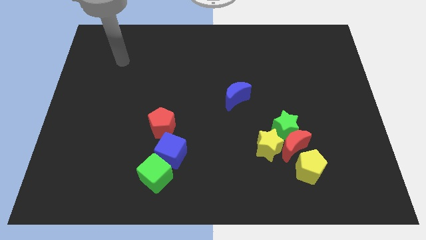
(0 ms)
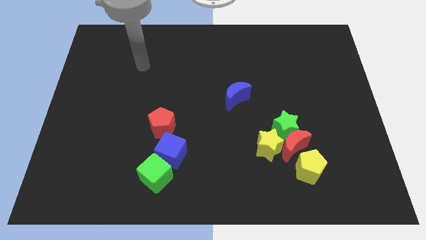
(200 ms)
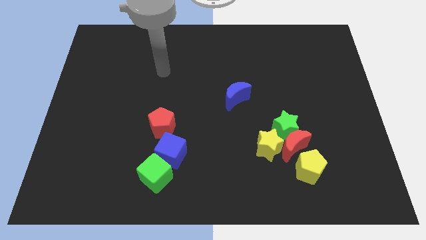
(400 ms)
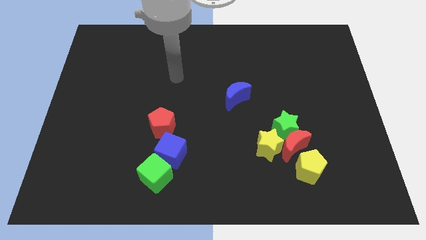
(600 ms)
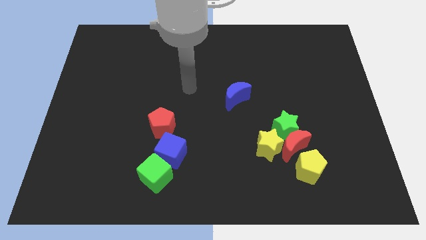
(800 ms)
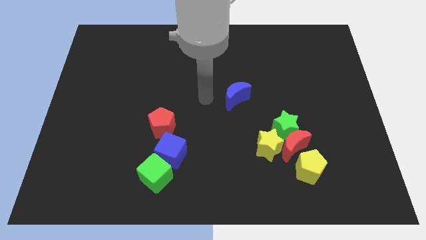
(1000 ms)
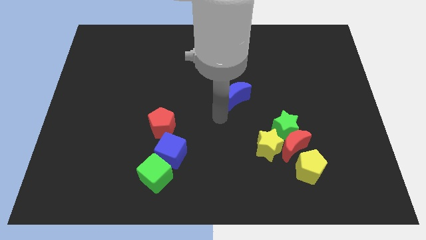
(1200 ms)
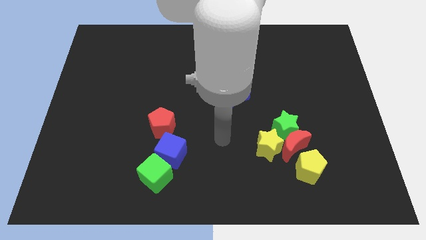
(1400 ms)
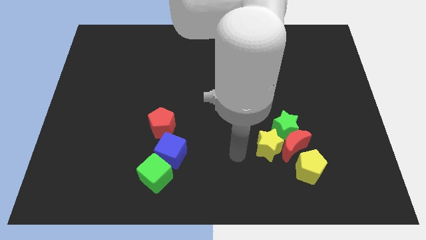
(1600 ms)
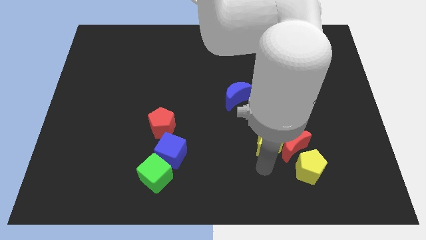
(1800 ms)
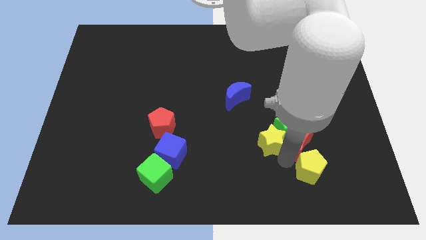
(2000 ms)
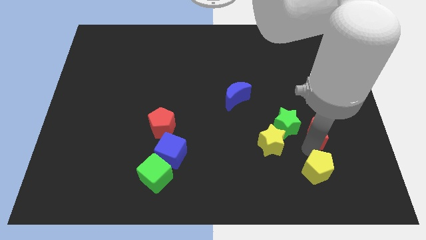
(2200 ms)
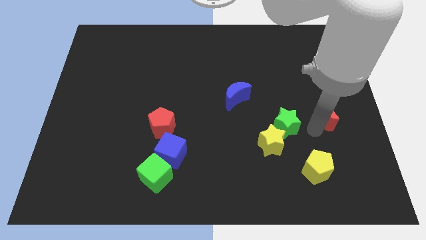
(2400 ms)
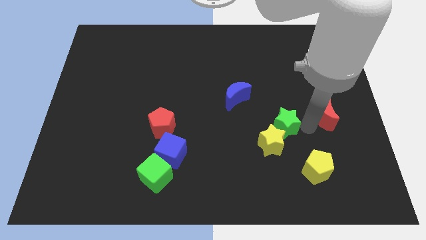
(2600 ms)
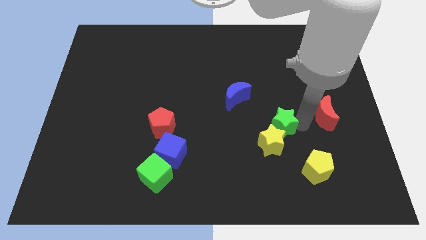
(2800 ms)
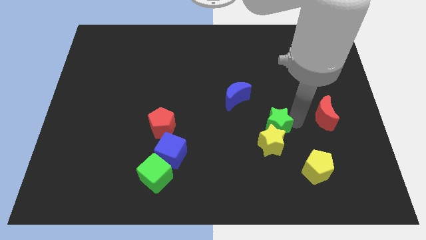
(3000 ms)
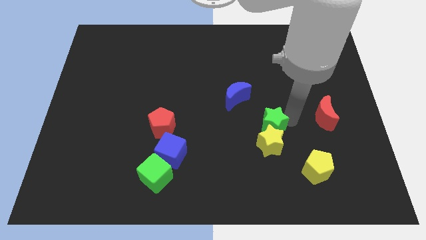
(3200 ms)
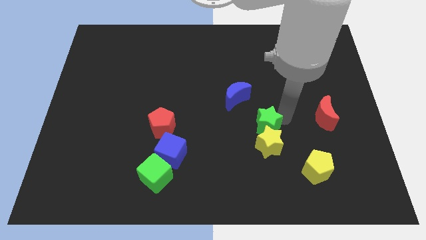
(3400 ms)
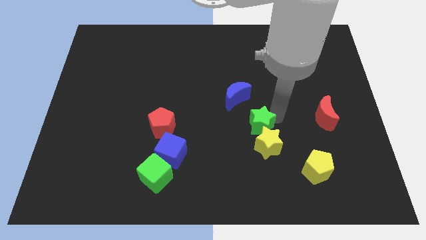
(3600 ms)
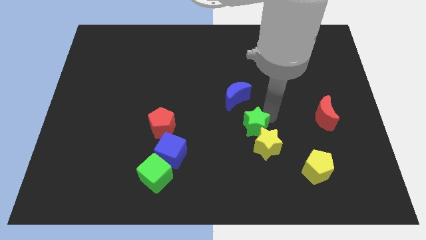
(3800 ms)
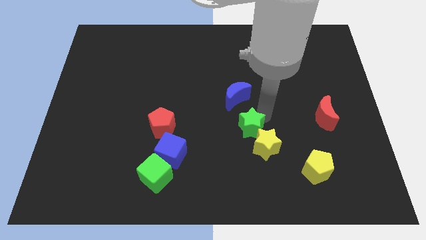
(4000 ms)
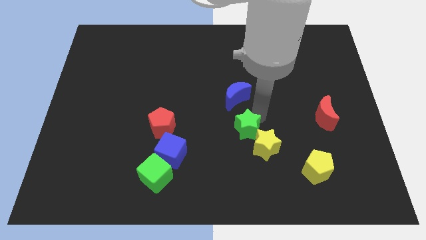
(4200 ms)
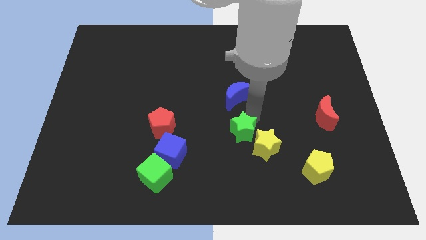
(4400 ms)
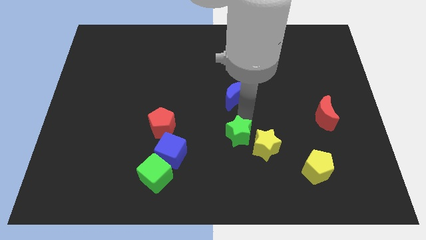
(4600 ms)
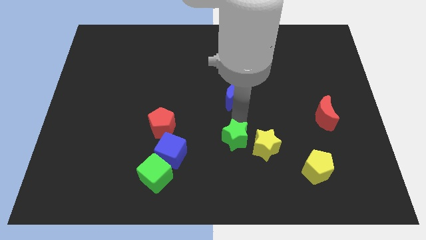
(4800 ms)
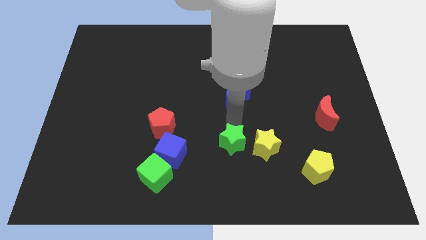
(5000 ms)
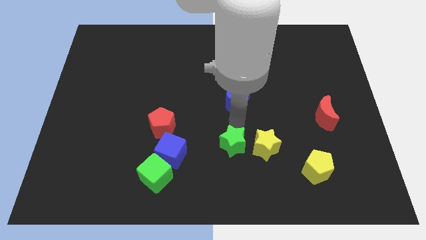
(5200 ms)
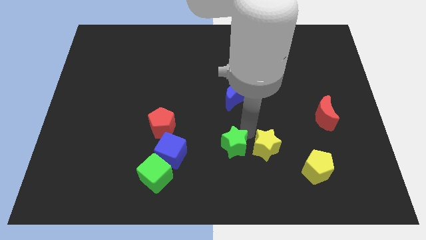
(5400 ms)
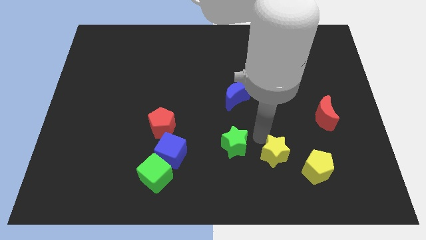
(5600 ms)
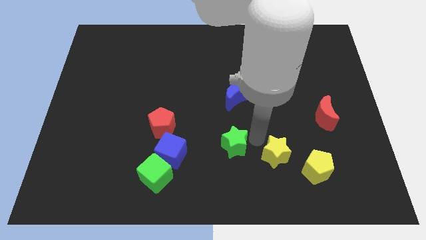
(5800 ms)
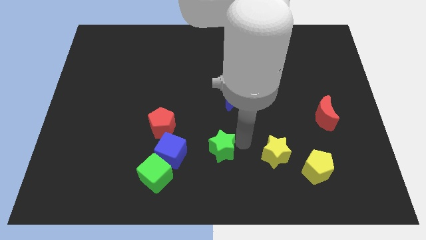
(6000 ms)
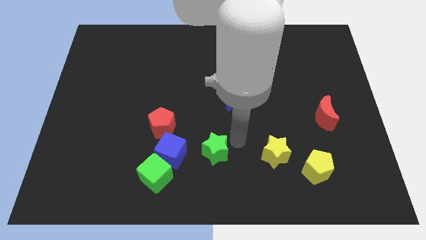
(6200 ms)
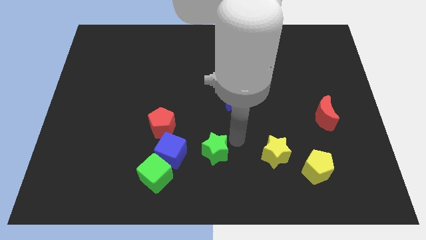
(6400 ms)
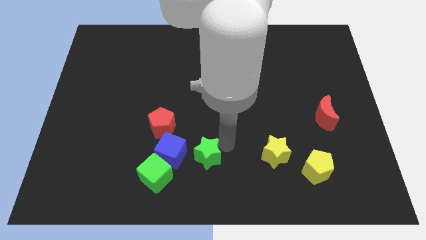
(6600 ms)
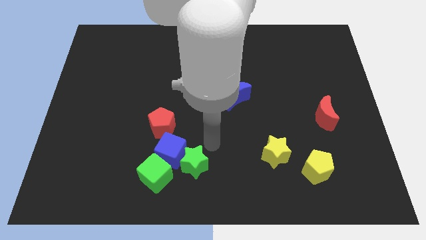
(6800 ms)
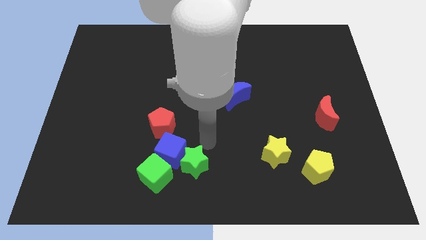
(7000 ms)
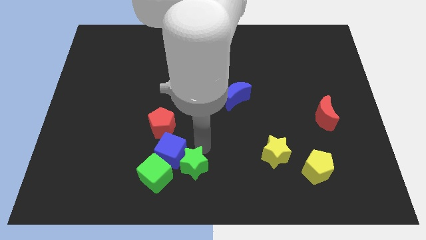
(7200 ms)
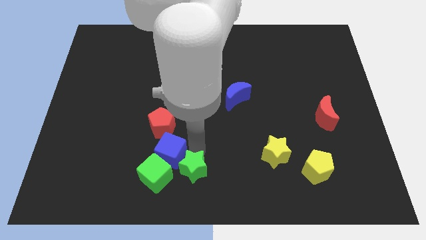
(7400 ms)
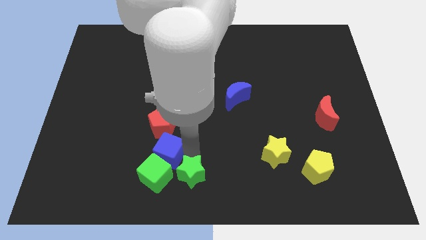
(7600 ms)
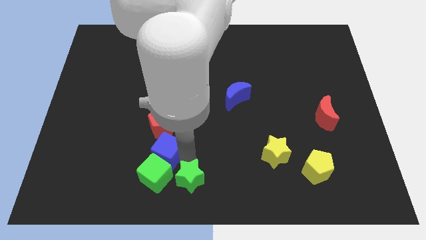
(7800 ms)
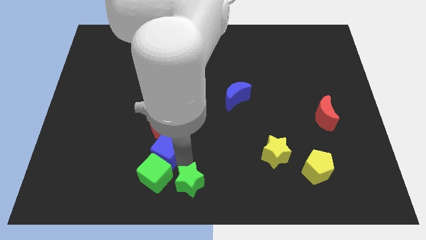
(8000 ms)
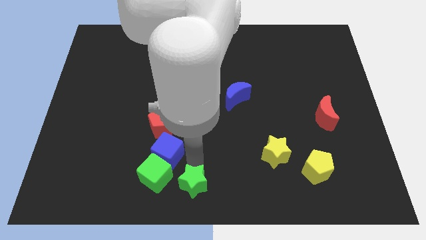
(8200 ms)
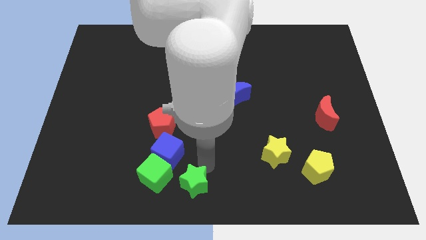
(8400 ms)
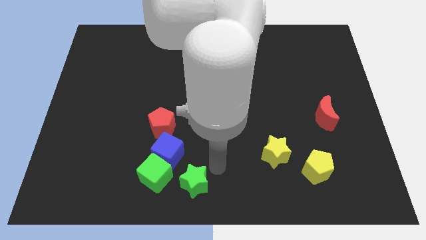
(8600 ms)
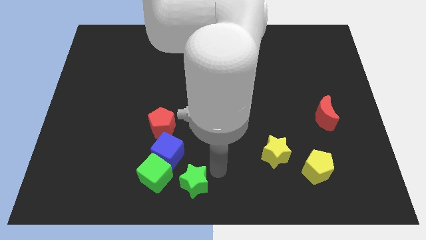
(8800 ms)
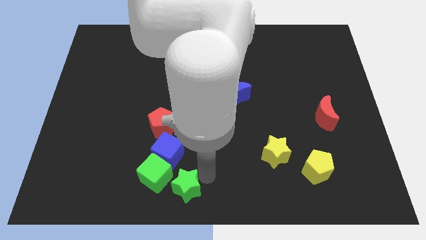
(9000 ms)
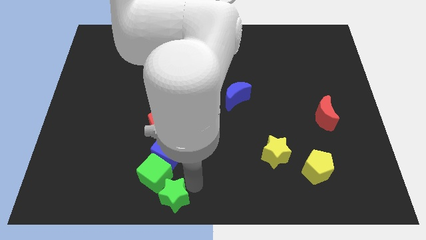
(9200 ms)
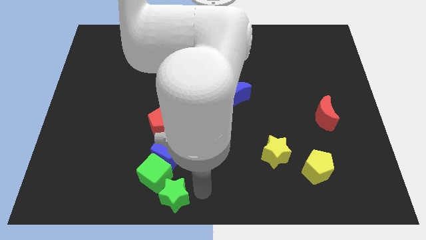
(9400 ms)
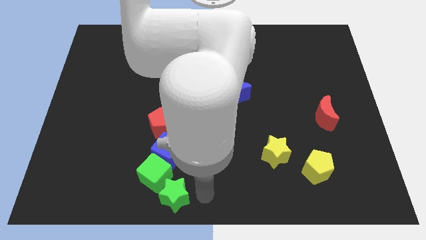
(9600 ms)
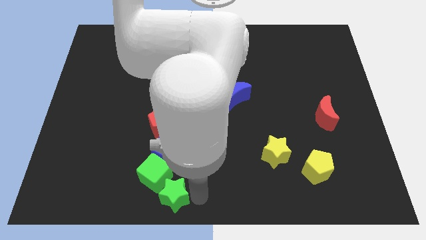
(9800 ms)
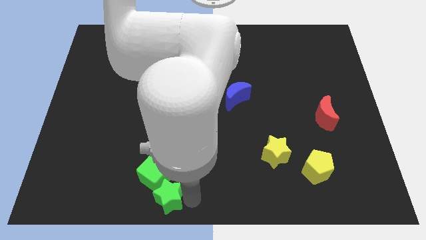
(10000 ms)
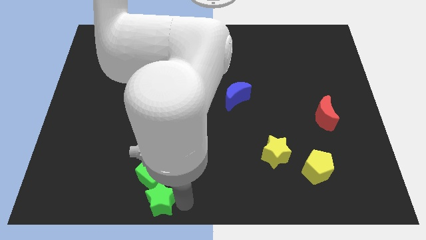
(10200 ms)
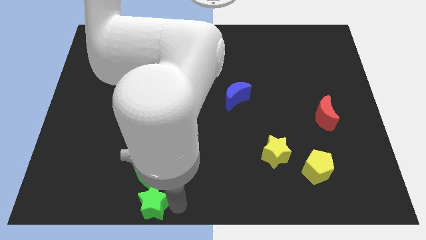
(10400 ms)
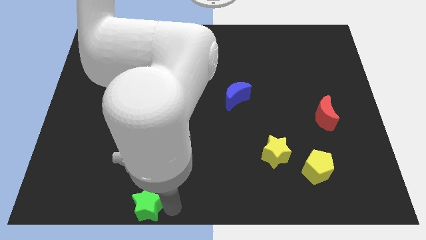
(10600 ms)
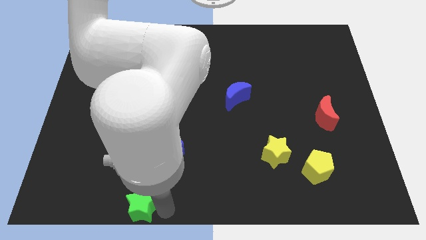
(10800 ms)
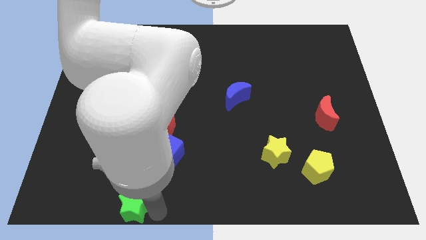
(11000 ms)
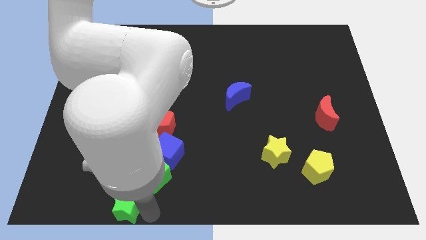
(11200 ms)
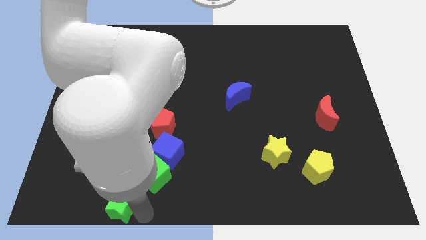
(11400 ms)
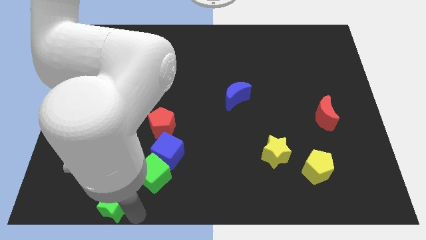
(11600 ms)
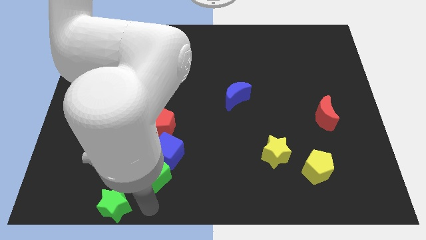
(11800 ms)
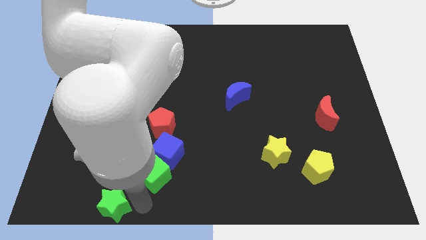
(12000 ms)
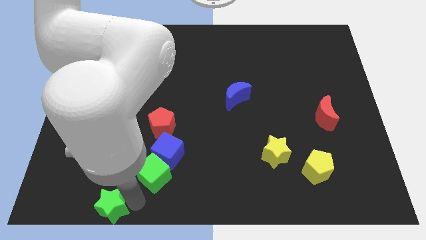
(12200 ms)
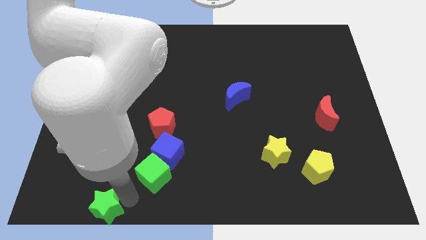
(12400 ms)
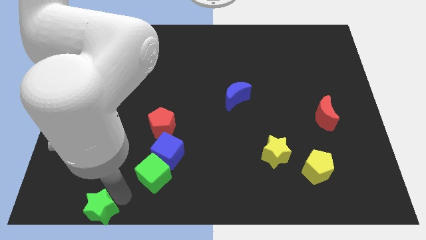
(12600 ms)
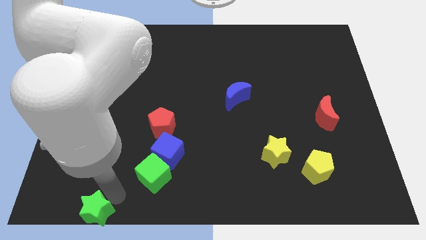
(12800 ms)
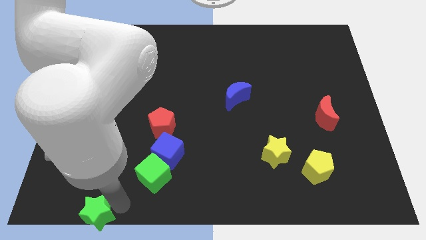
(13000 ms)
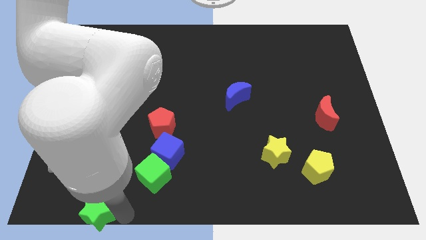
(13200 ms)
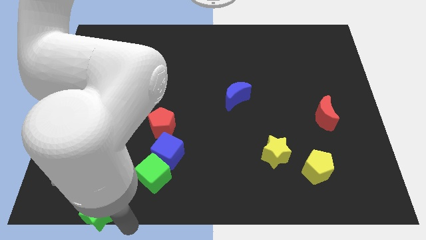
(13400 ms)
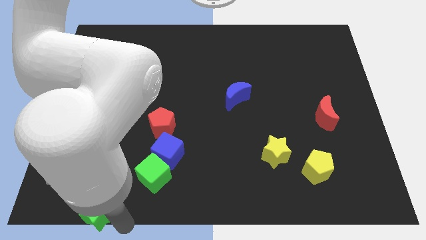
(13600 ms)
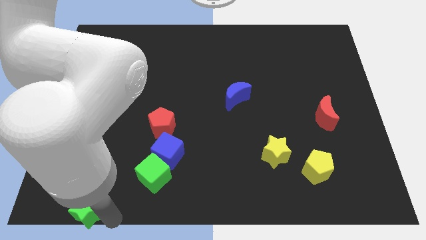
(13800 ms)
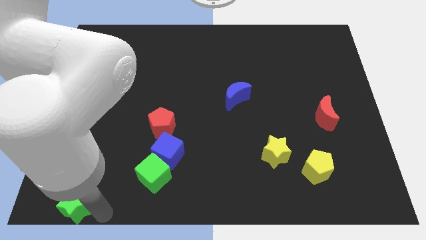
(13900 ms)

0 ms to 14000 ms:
push the green star to the bottom left corner

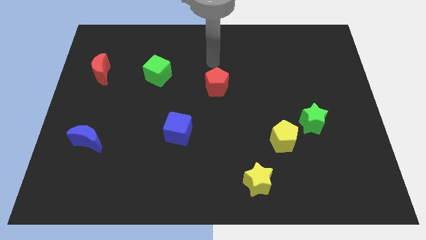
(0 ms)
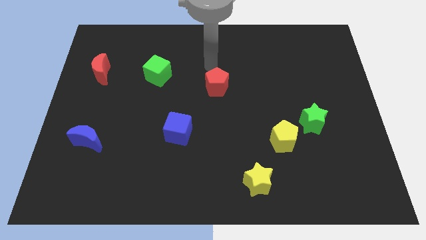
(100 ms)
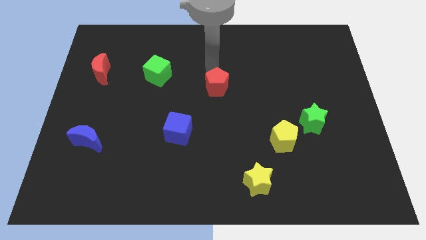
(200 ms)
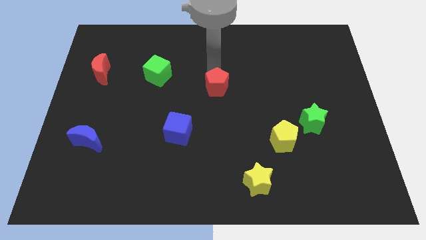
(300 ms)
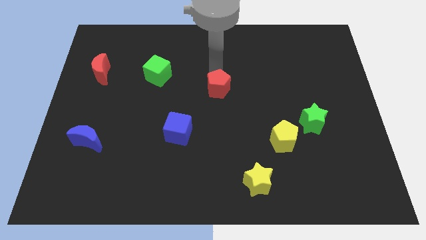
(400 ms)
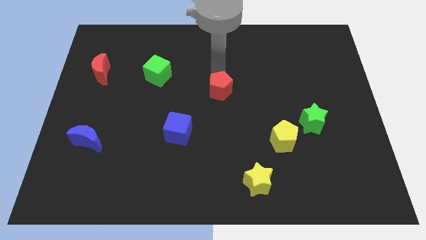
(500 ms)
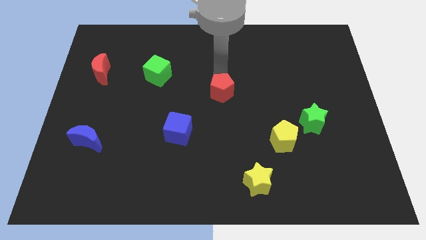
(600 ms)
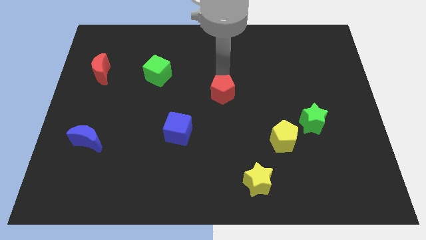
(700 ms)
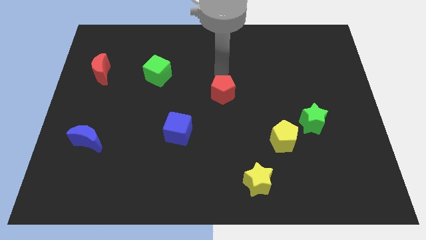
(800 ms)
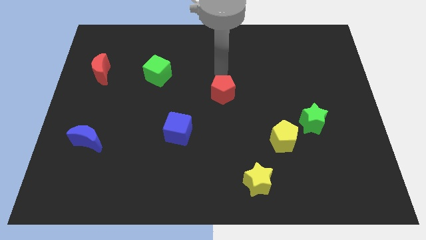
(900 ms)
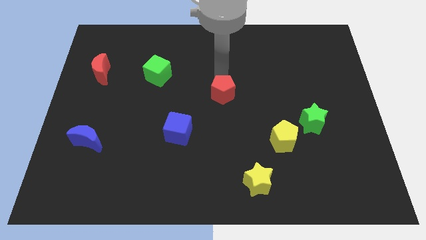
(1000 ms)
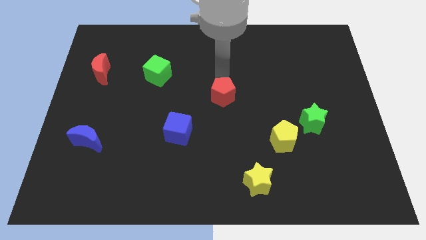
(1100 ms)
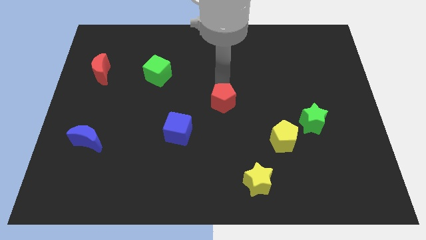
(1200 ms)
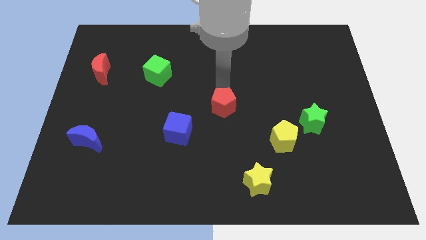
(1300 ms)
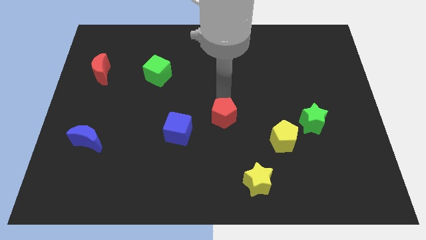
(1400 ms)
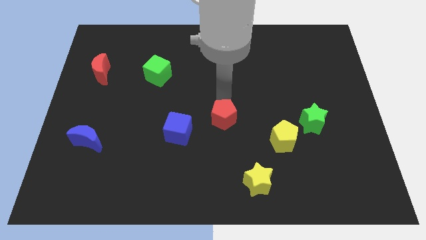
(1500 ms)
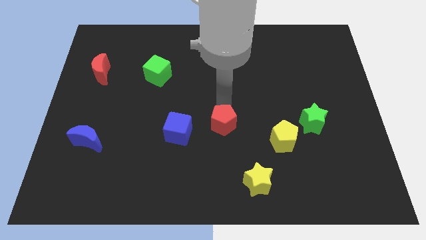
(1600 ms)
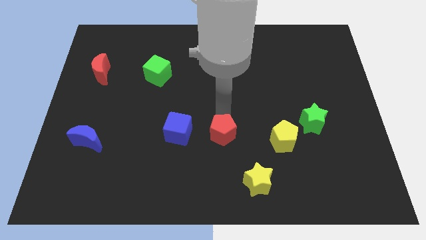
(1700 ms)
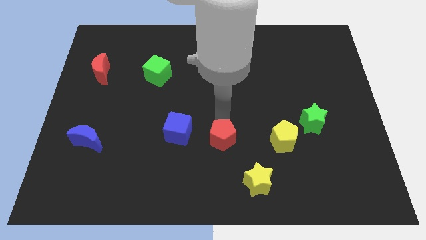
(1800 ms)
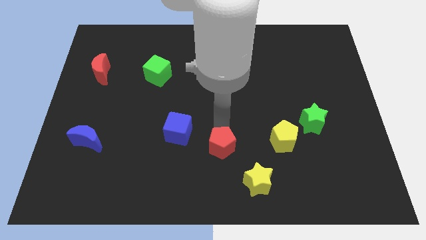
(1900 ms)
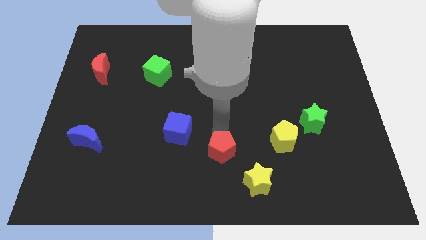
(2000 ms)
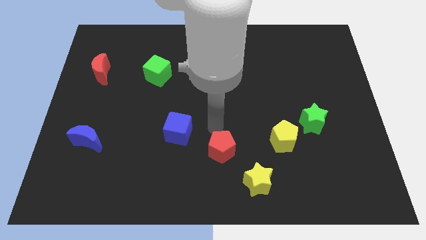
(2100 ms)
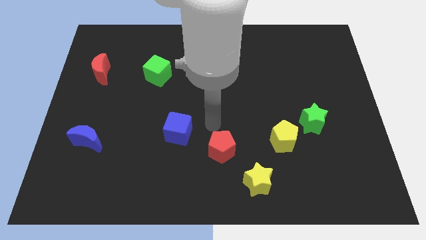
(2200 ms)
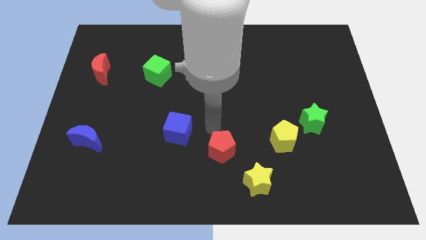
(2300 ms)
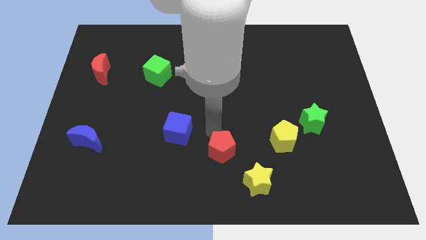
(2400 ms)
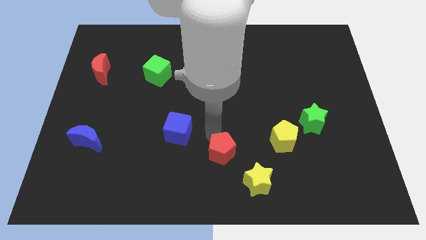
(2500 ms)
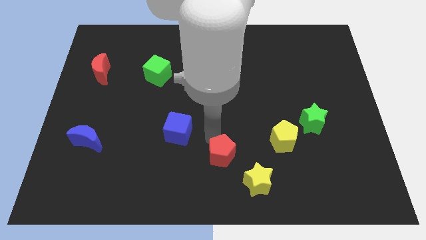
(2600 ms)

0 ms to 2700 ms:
push the red pentagon to the bottom
